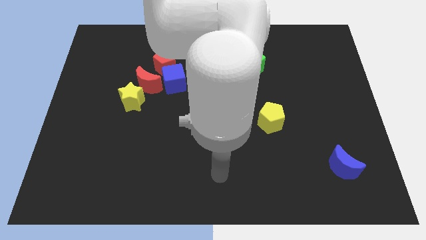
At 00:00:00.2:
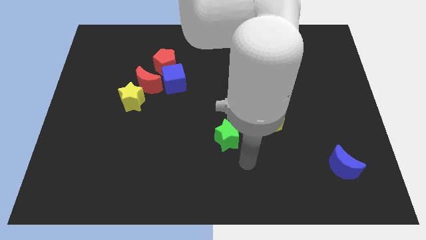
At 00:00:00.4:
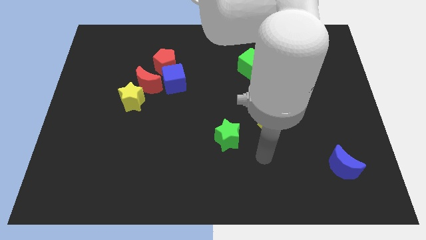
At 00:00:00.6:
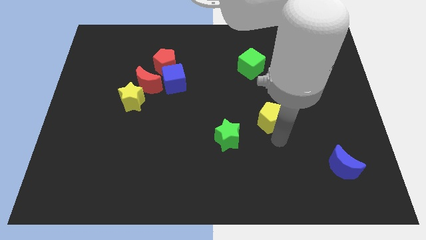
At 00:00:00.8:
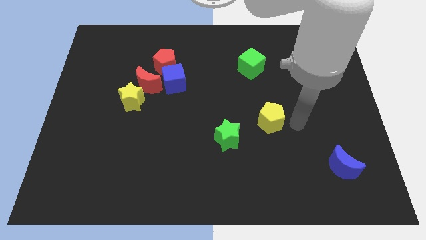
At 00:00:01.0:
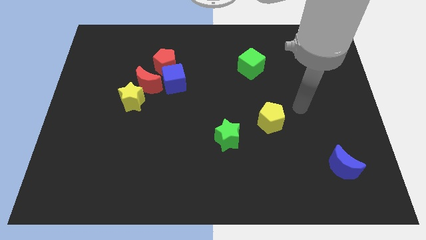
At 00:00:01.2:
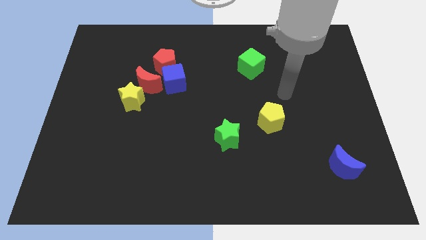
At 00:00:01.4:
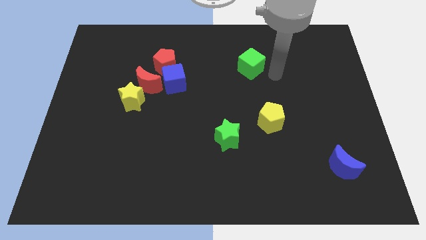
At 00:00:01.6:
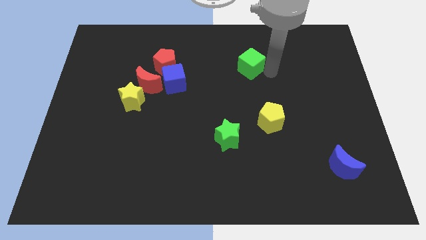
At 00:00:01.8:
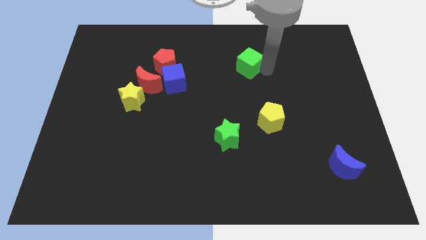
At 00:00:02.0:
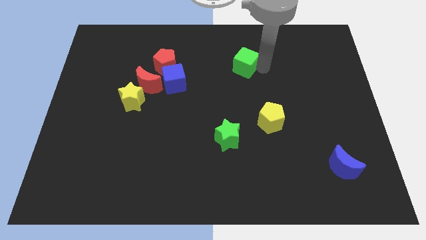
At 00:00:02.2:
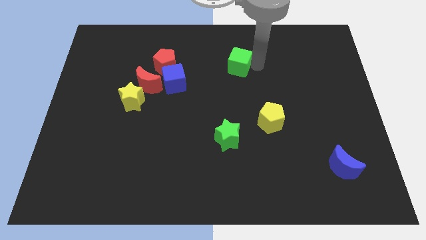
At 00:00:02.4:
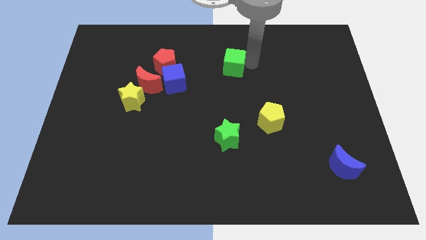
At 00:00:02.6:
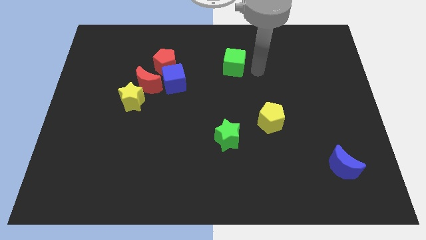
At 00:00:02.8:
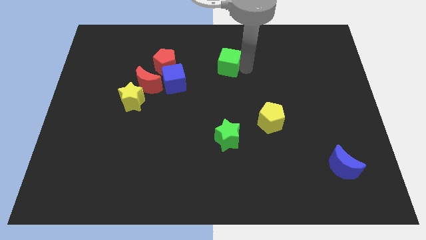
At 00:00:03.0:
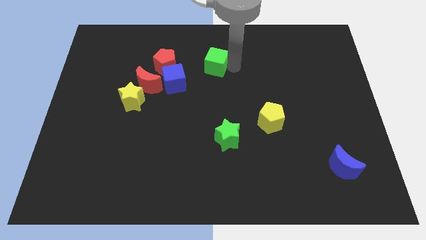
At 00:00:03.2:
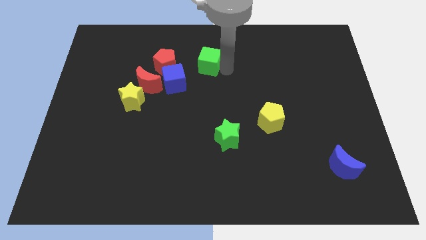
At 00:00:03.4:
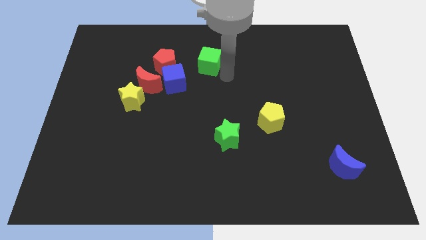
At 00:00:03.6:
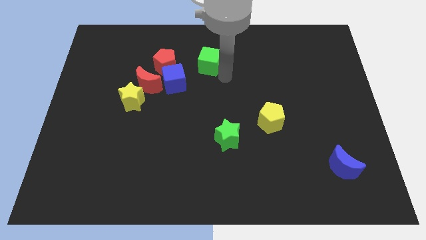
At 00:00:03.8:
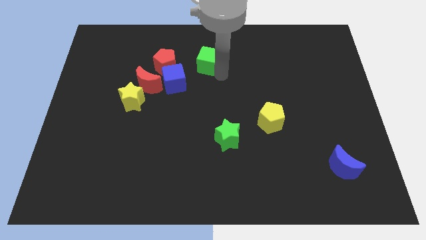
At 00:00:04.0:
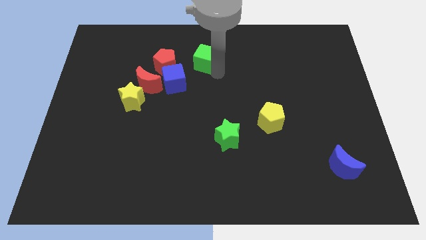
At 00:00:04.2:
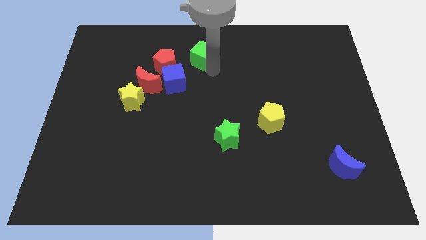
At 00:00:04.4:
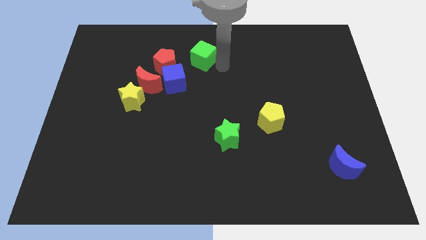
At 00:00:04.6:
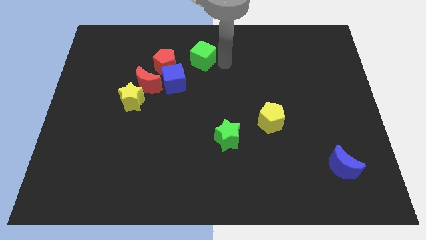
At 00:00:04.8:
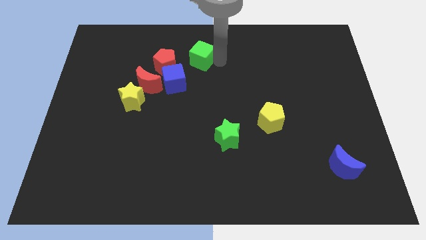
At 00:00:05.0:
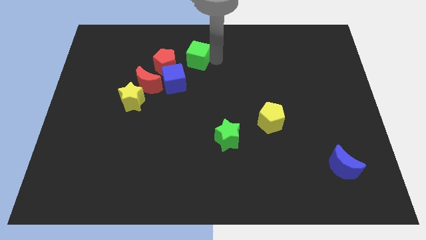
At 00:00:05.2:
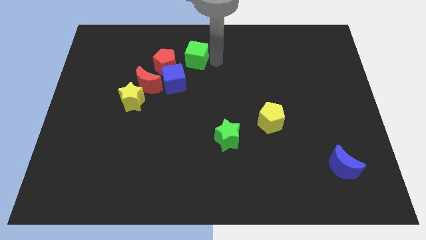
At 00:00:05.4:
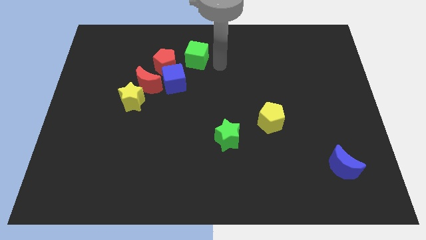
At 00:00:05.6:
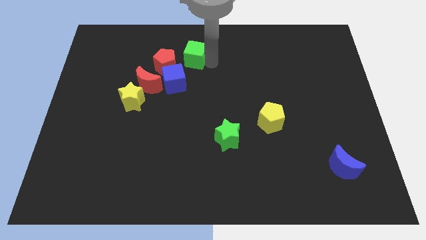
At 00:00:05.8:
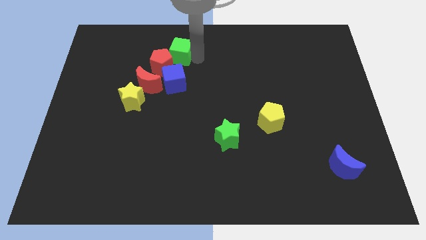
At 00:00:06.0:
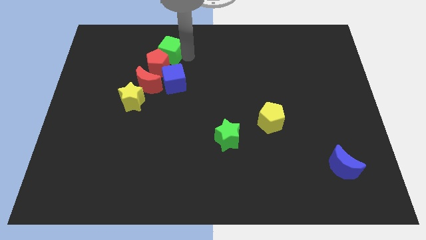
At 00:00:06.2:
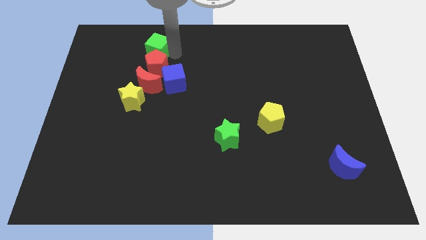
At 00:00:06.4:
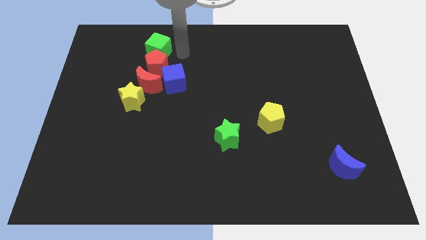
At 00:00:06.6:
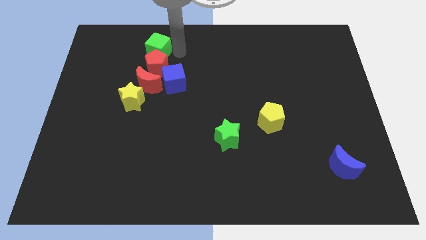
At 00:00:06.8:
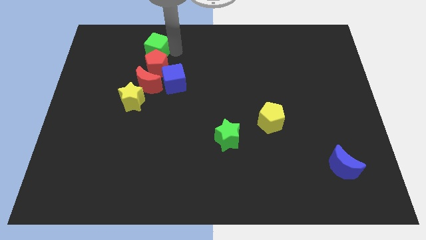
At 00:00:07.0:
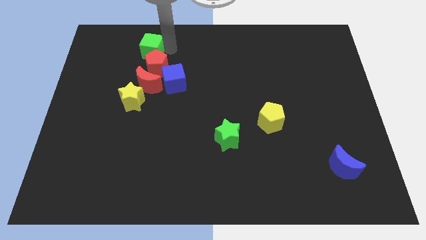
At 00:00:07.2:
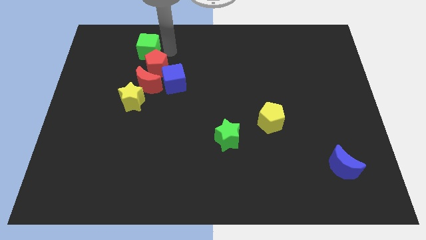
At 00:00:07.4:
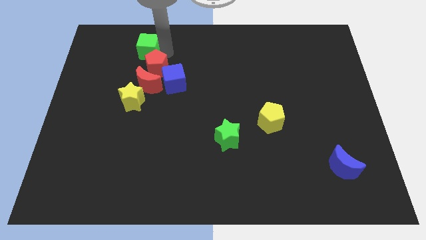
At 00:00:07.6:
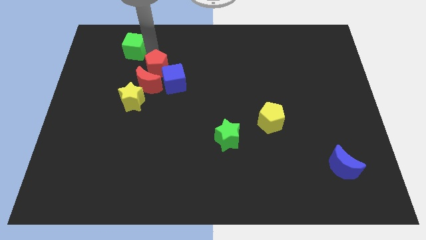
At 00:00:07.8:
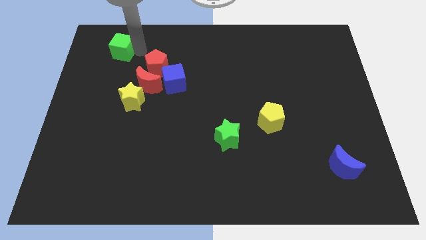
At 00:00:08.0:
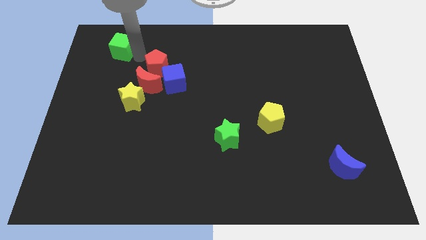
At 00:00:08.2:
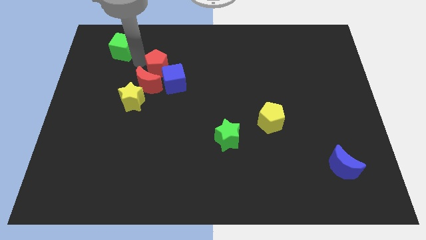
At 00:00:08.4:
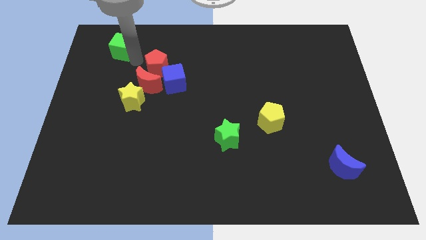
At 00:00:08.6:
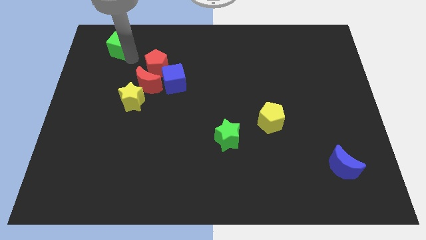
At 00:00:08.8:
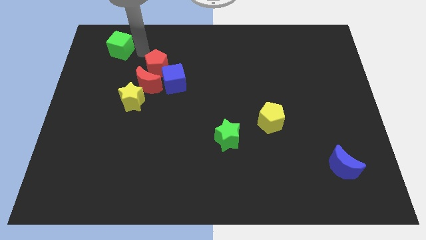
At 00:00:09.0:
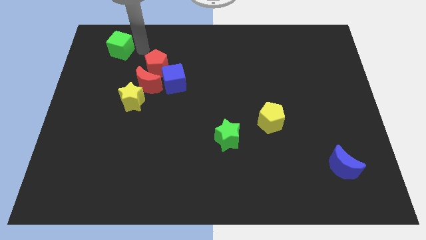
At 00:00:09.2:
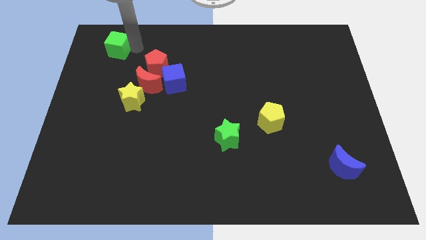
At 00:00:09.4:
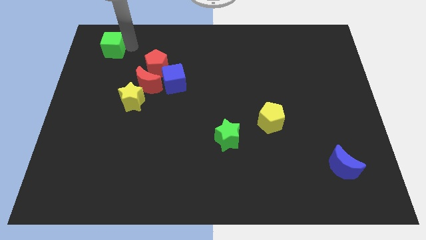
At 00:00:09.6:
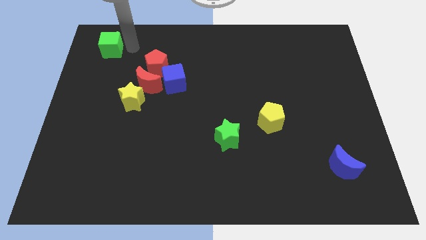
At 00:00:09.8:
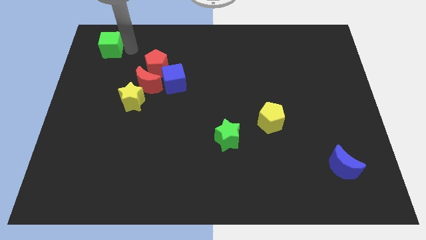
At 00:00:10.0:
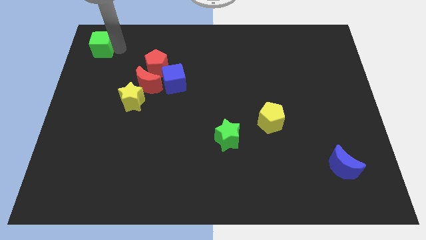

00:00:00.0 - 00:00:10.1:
push the green cube to the top left corner

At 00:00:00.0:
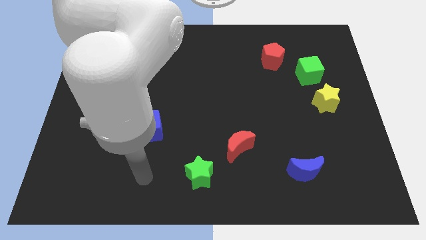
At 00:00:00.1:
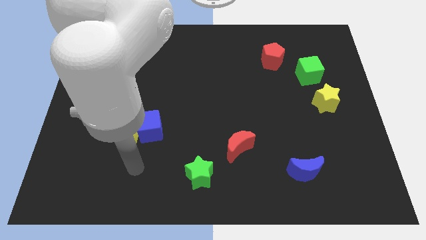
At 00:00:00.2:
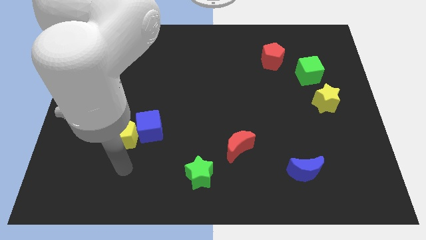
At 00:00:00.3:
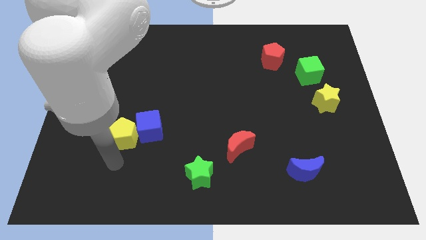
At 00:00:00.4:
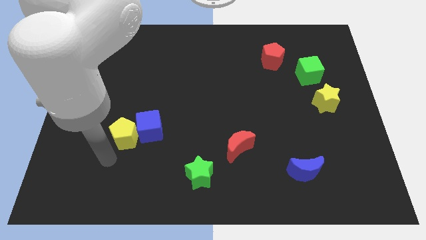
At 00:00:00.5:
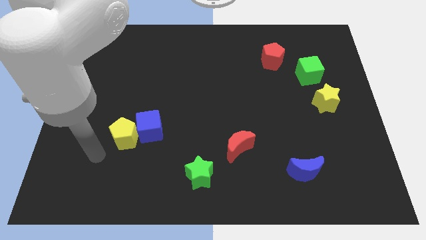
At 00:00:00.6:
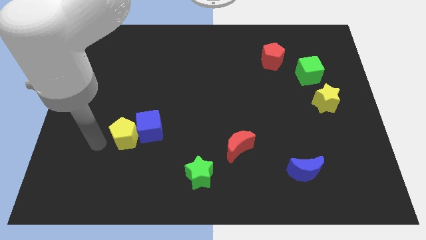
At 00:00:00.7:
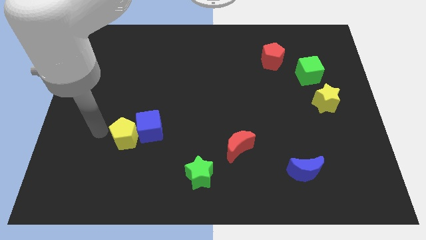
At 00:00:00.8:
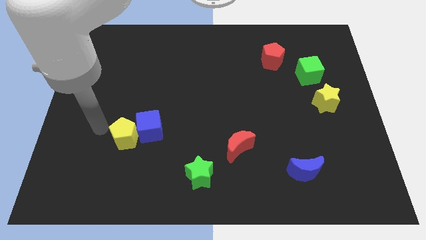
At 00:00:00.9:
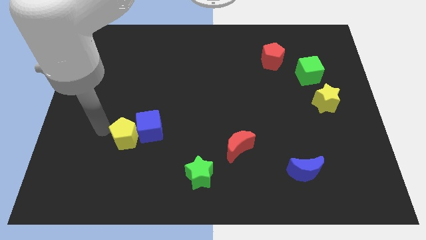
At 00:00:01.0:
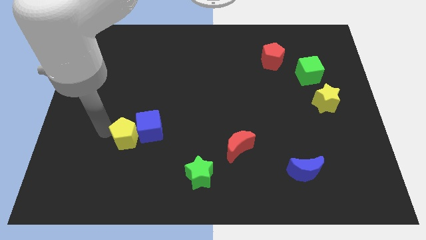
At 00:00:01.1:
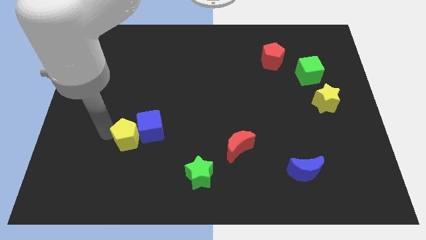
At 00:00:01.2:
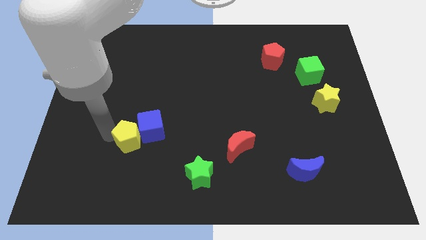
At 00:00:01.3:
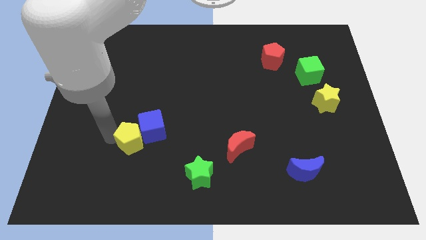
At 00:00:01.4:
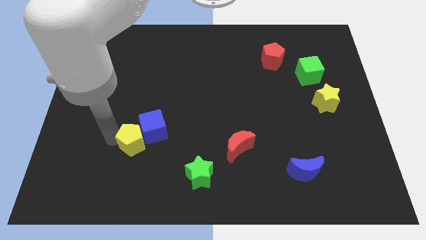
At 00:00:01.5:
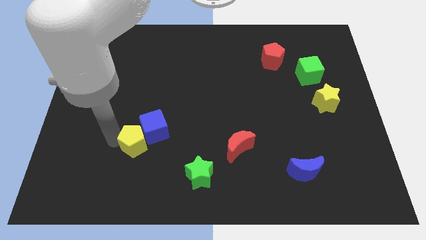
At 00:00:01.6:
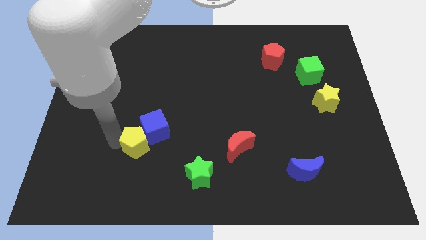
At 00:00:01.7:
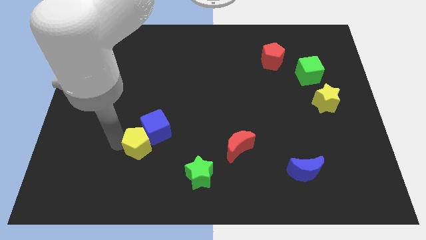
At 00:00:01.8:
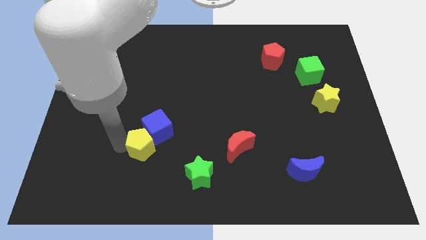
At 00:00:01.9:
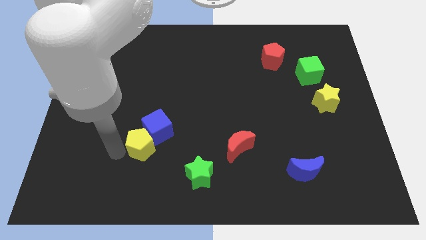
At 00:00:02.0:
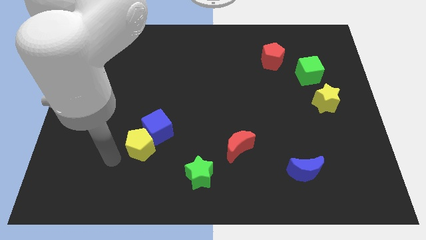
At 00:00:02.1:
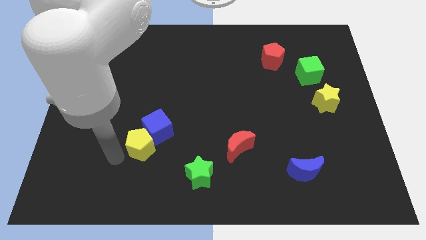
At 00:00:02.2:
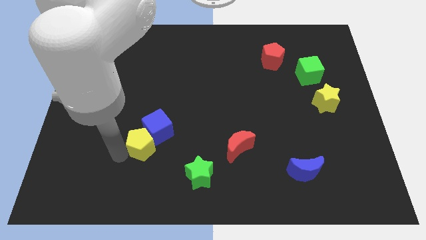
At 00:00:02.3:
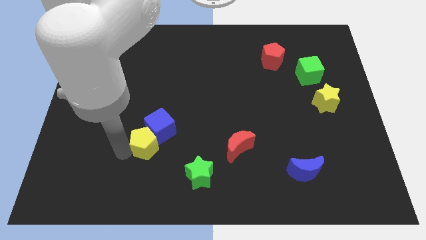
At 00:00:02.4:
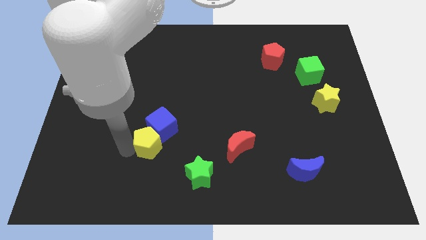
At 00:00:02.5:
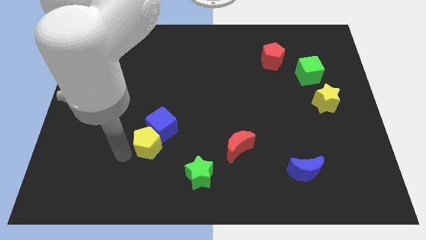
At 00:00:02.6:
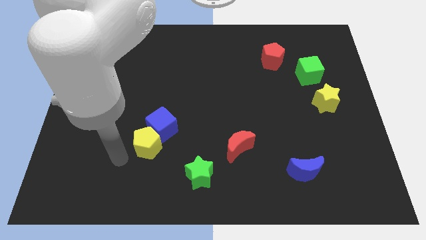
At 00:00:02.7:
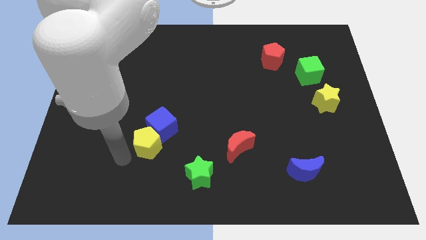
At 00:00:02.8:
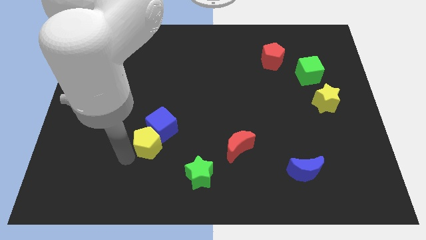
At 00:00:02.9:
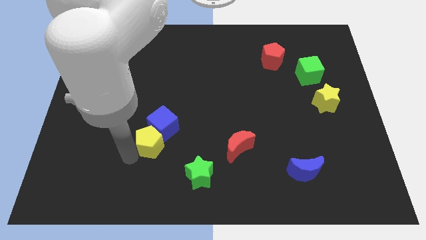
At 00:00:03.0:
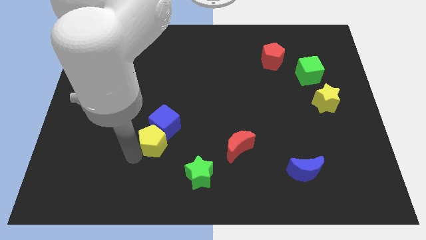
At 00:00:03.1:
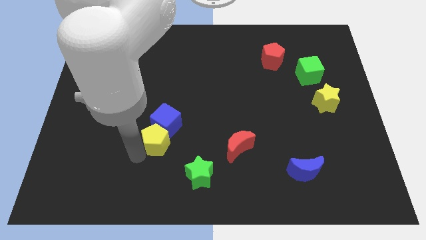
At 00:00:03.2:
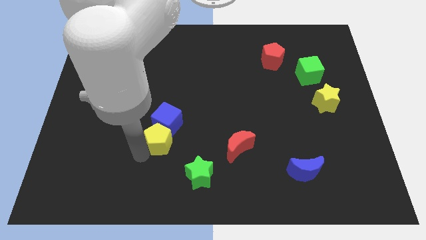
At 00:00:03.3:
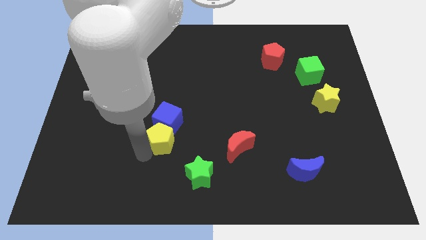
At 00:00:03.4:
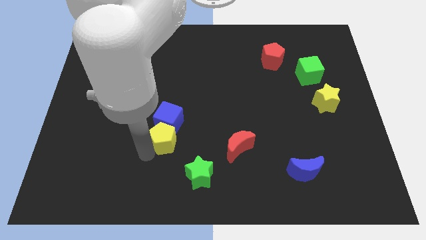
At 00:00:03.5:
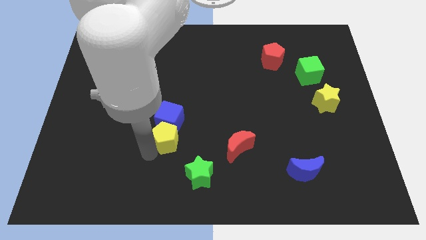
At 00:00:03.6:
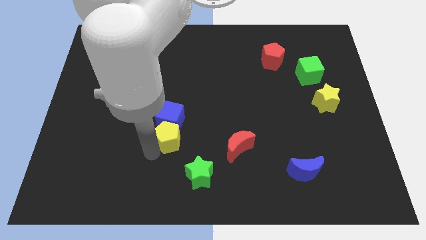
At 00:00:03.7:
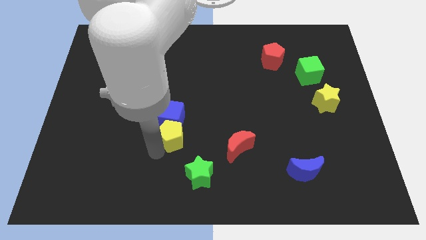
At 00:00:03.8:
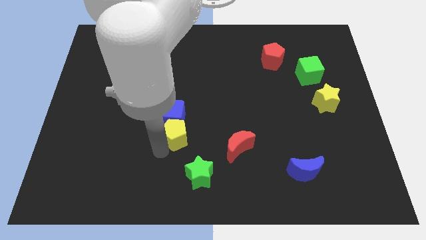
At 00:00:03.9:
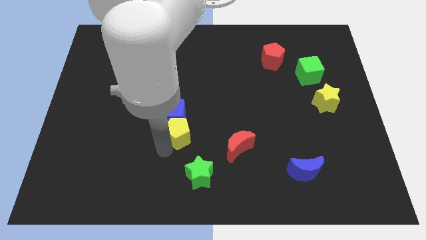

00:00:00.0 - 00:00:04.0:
put the yellow pentagon to the center
